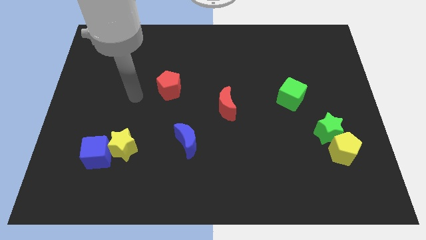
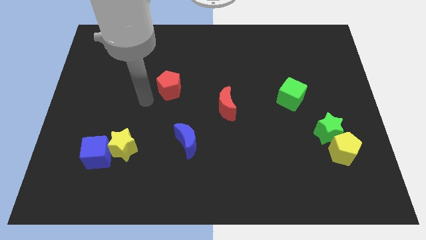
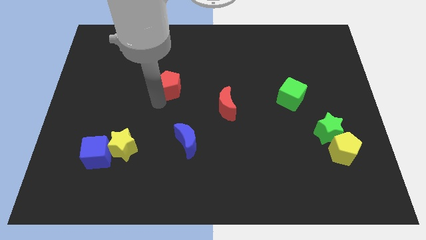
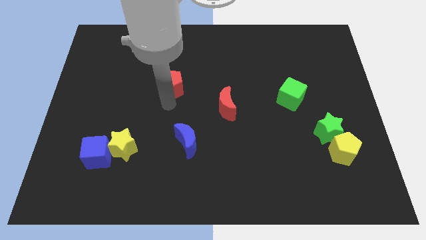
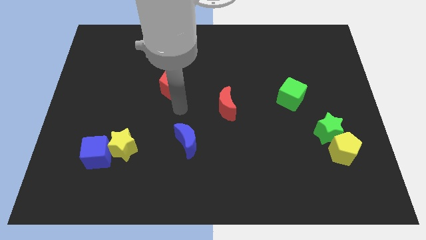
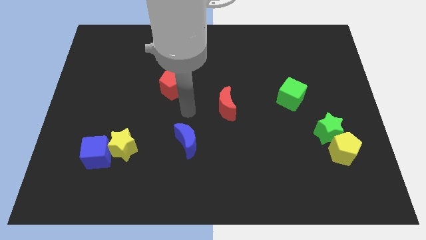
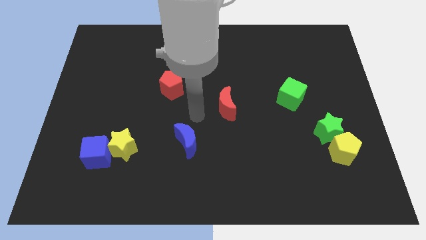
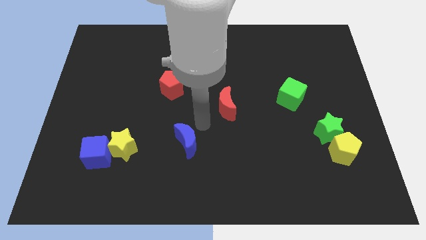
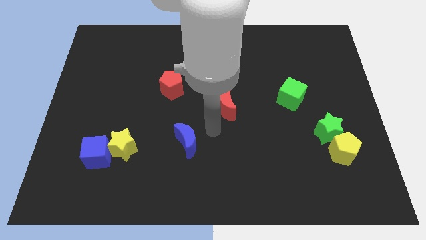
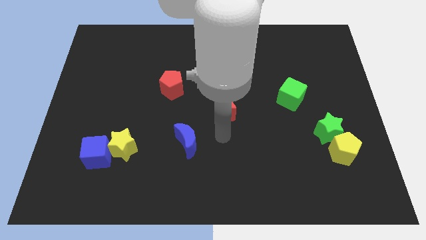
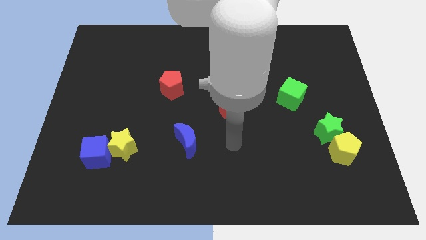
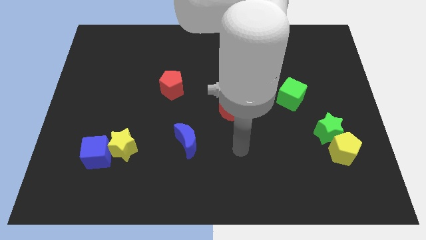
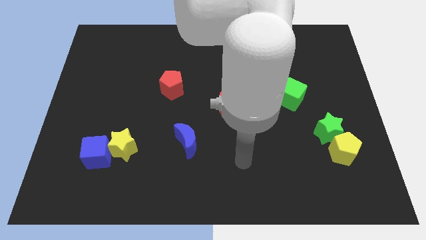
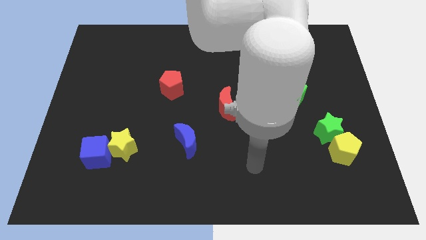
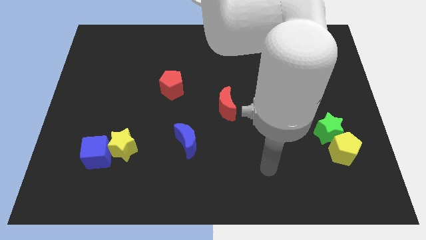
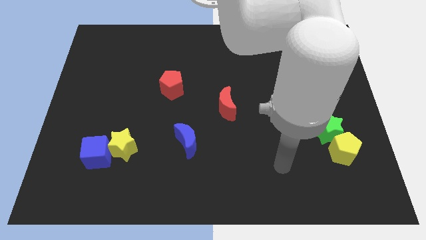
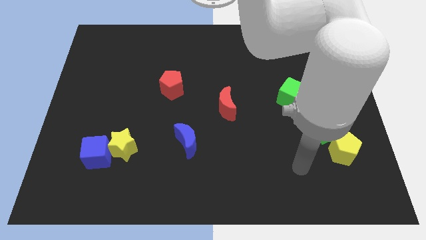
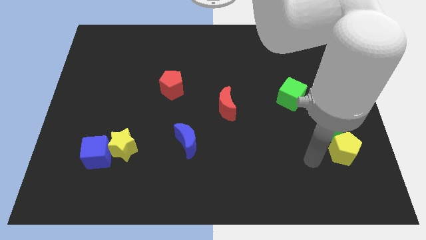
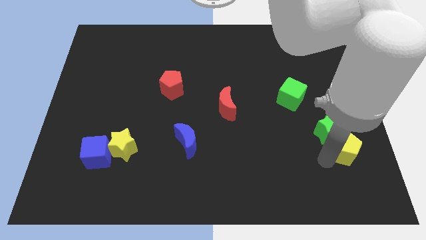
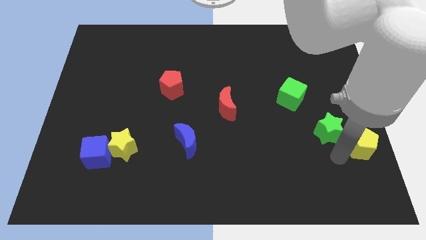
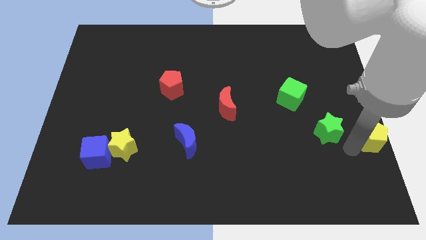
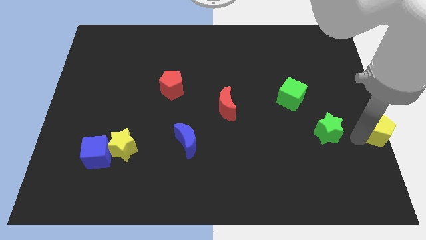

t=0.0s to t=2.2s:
move the green star away from the yellow pentagon

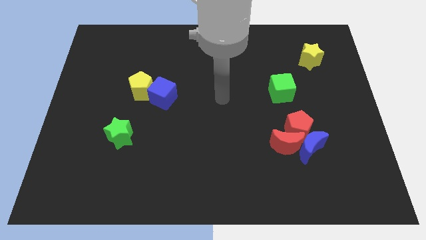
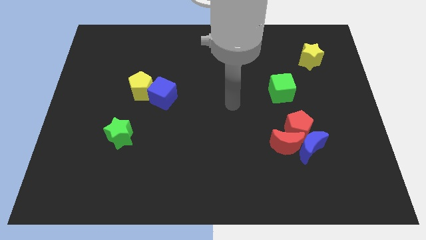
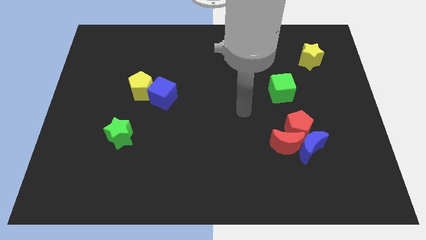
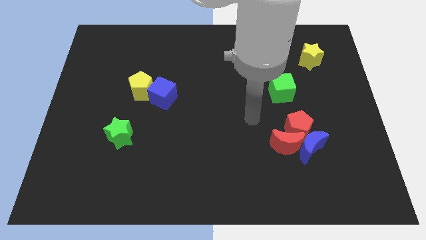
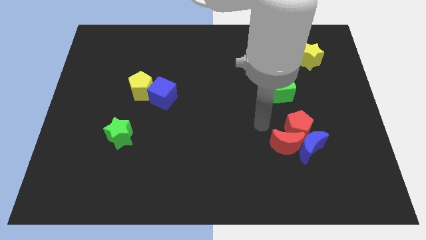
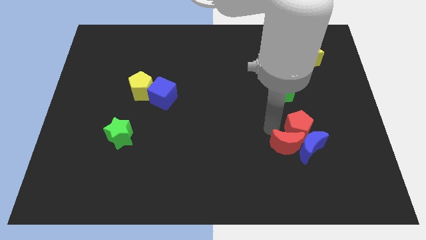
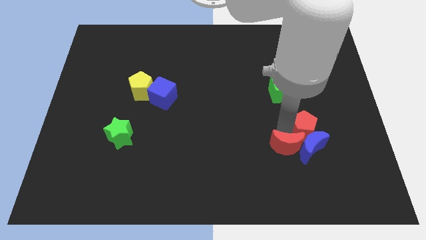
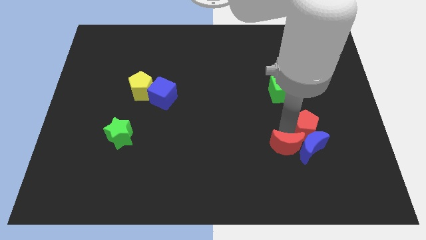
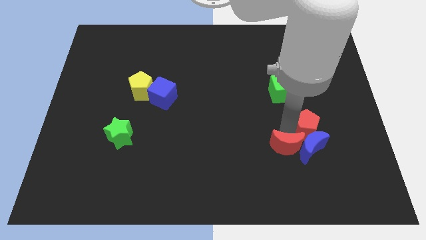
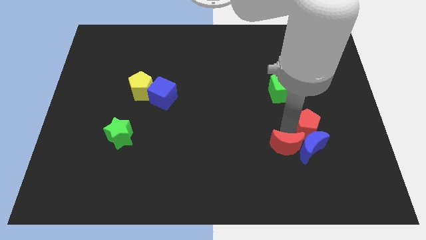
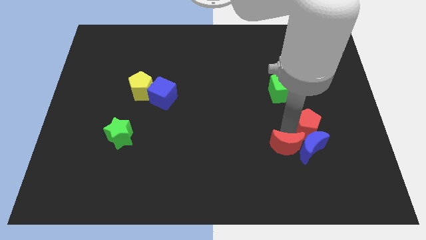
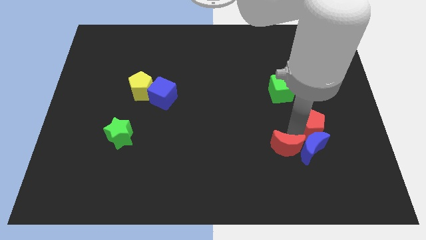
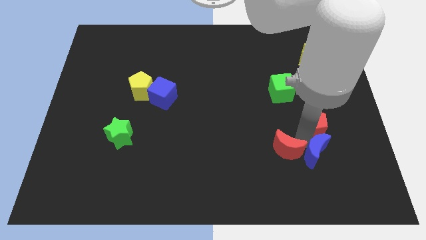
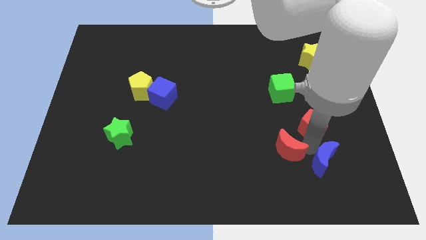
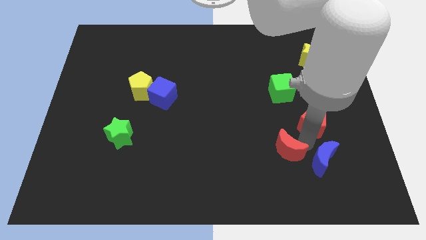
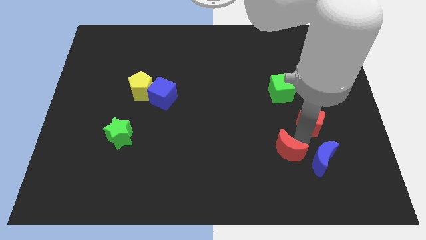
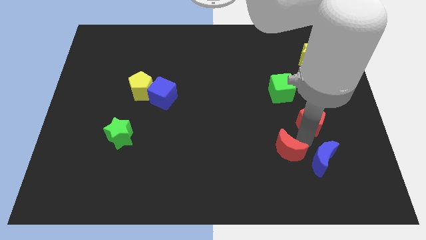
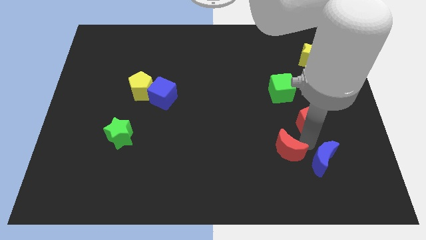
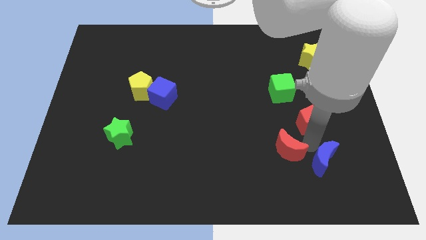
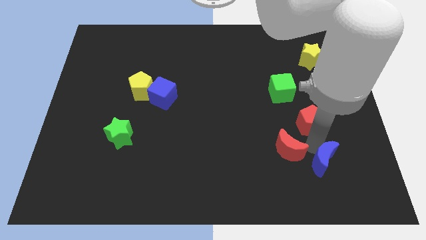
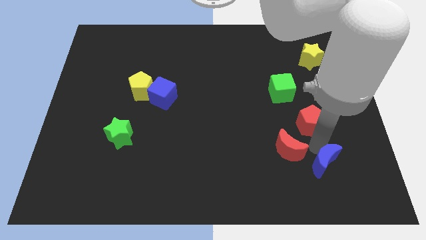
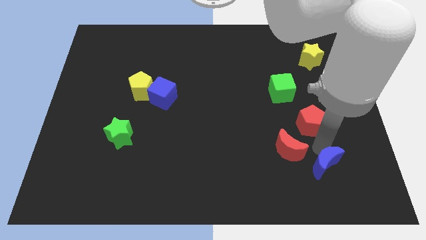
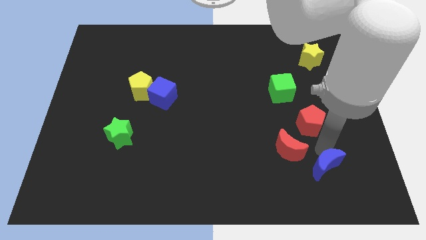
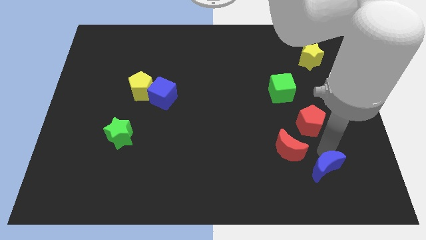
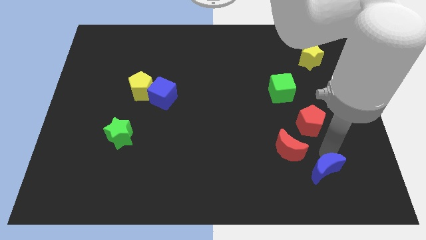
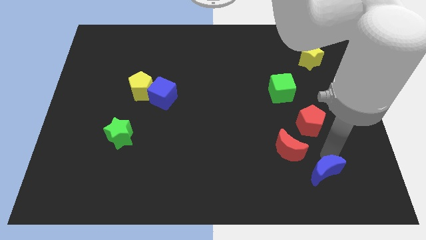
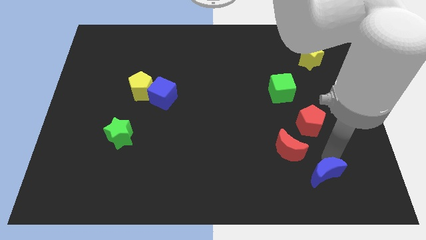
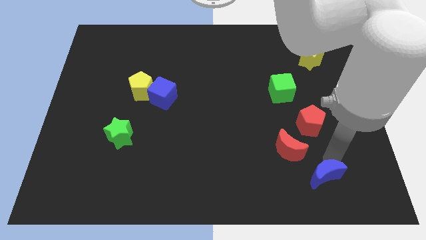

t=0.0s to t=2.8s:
move the blue moon away from the red moon and red pentagon

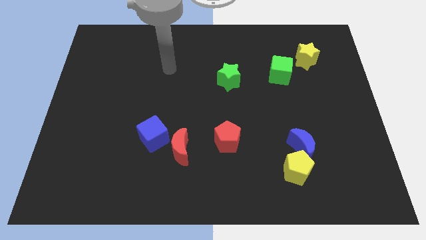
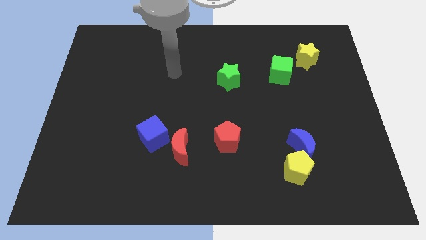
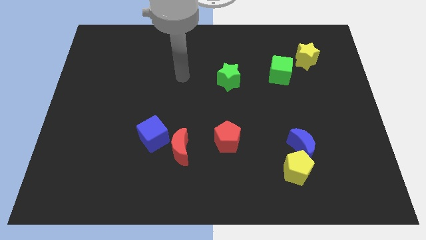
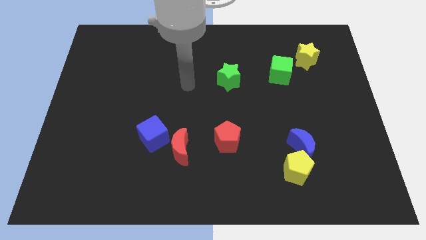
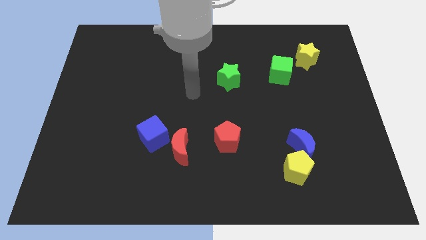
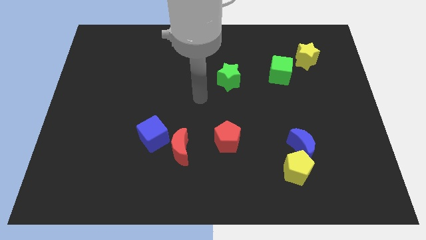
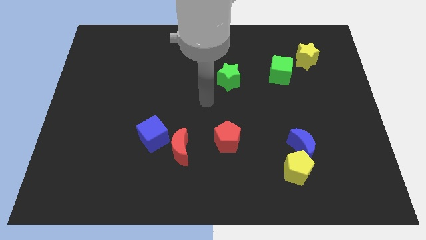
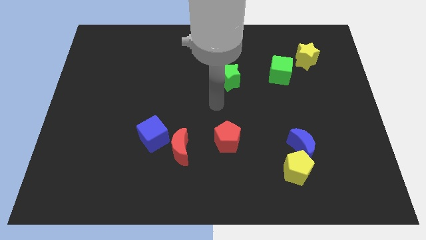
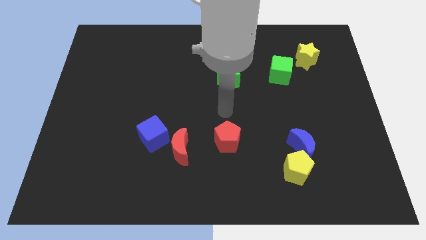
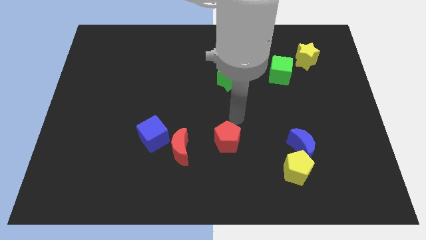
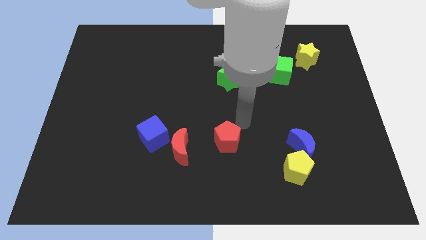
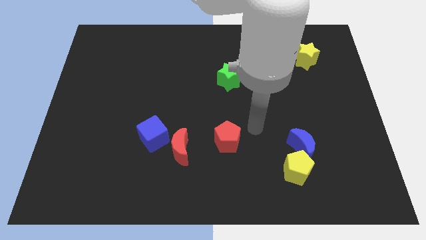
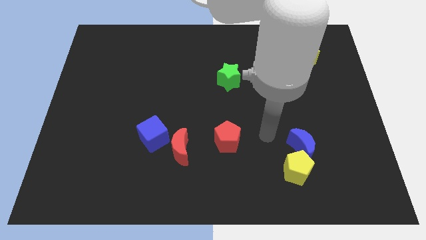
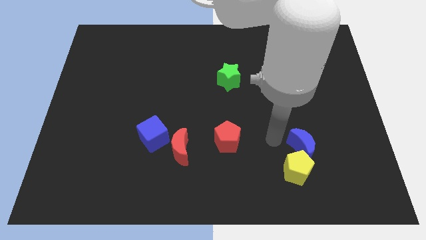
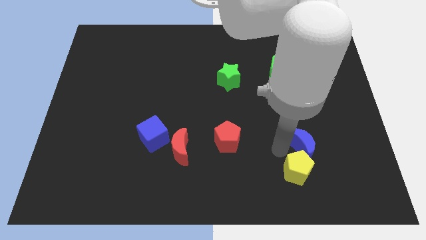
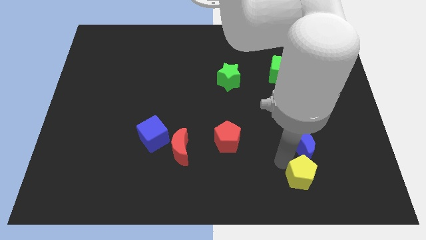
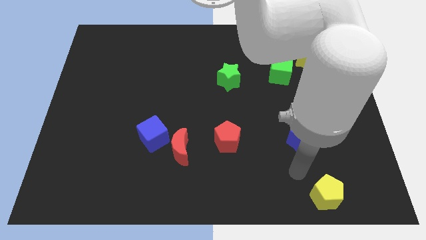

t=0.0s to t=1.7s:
separate the blue moon from the yellow pentagon

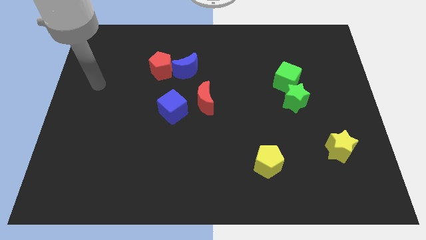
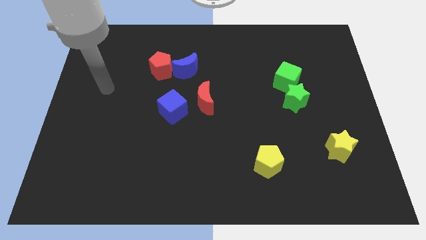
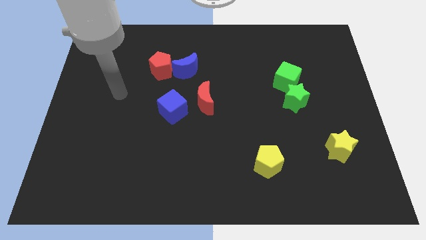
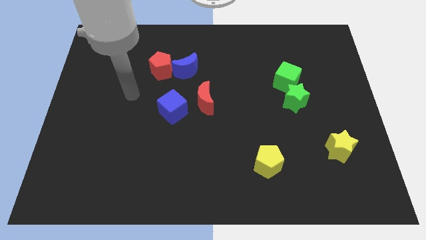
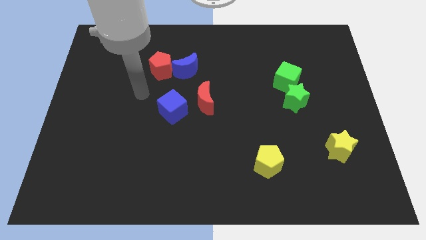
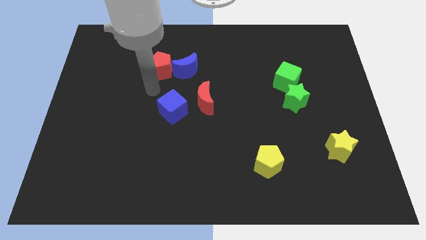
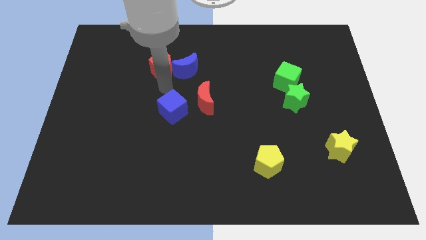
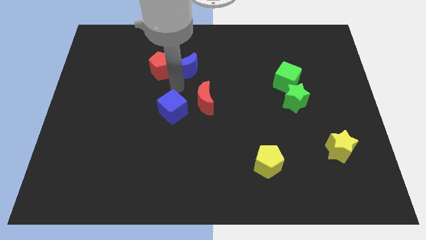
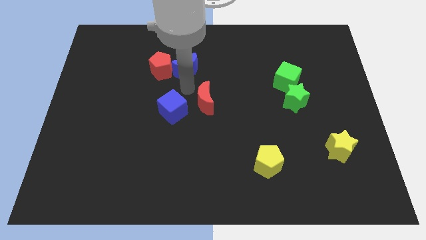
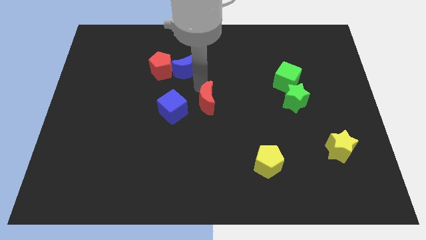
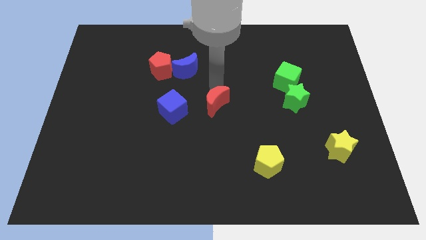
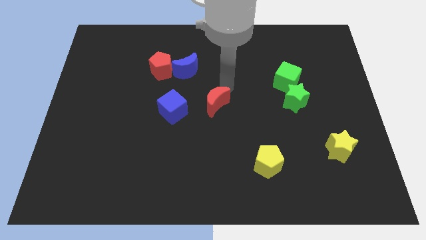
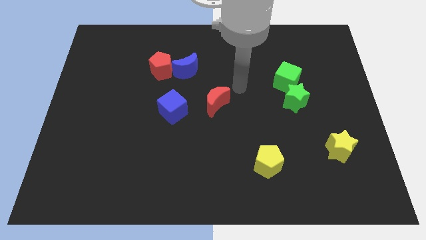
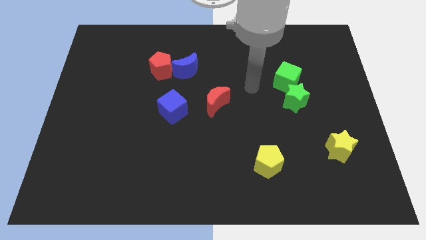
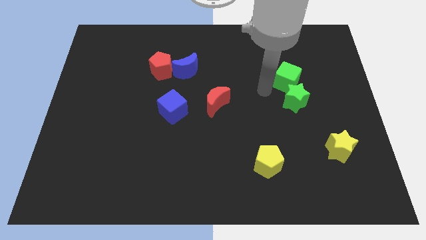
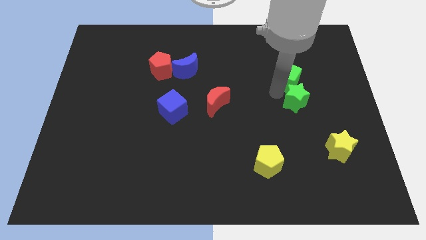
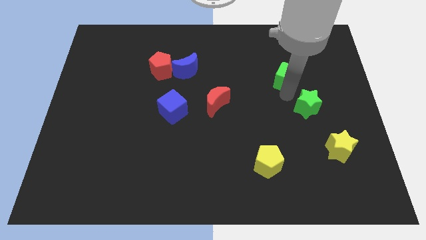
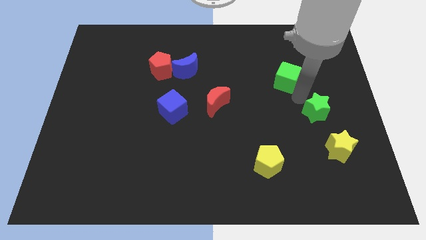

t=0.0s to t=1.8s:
move the green cube away from the green star

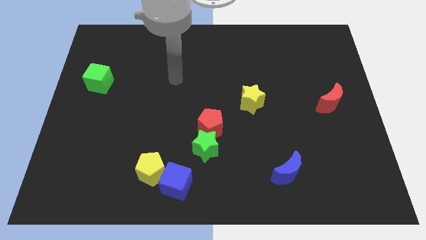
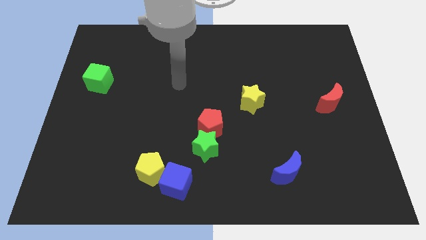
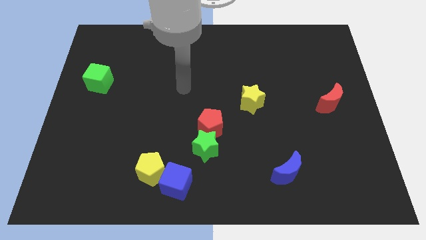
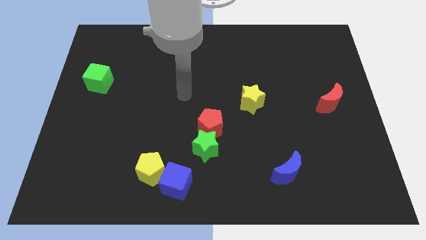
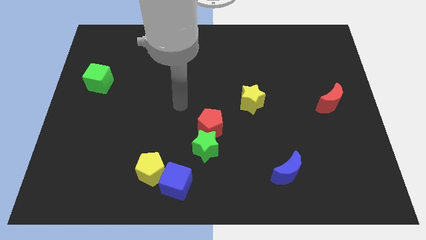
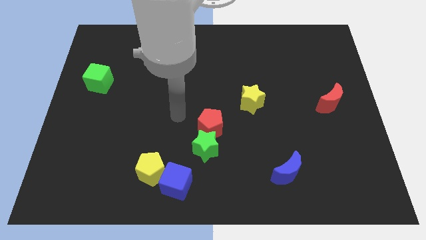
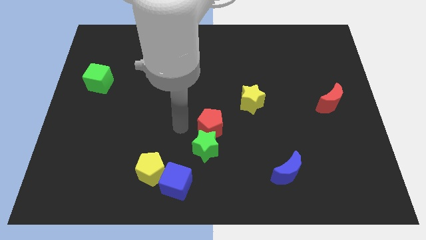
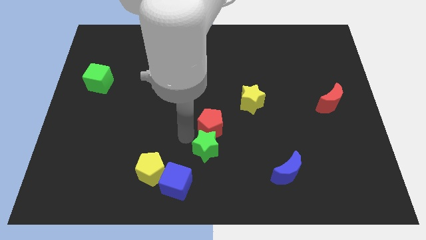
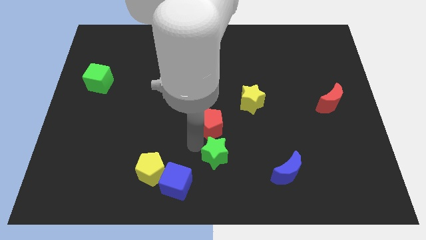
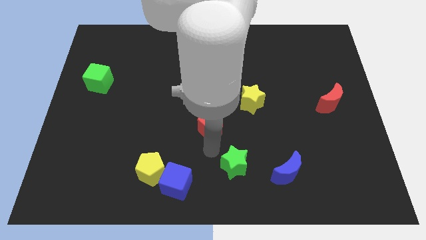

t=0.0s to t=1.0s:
separate the red pentagon from the green star

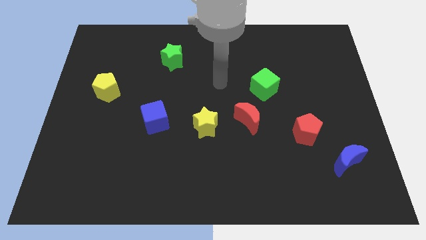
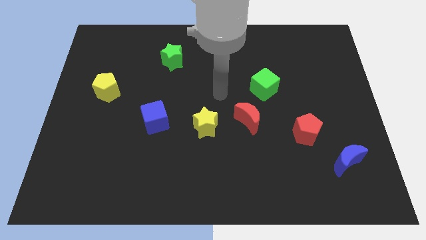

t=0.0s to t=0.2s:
separate the red moon from the yellow star
